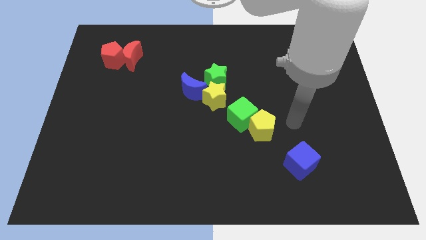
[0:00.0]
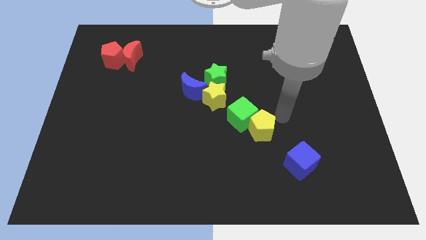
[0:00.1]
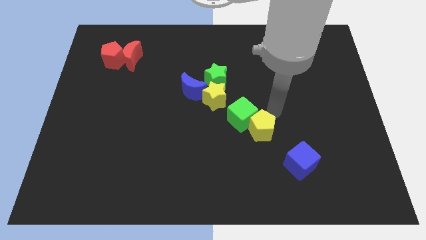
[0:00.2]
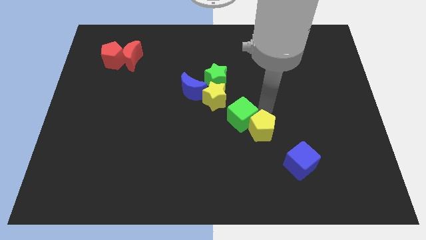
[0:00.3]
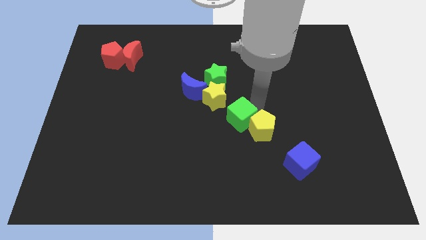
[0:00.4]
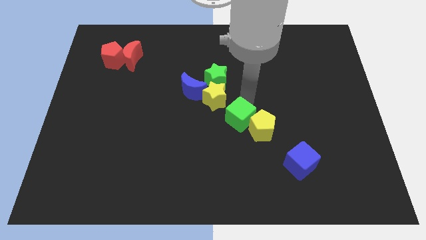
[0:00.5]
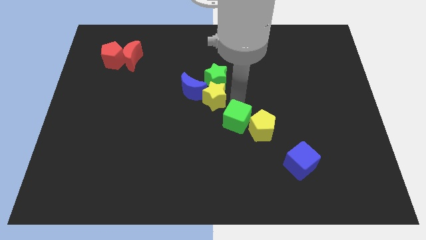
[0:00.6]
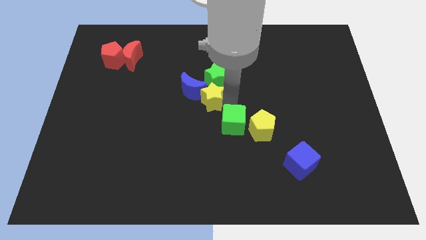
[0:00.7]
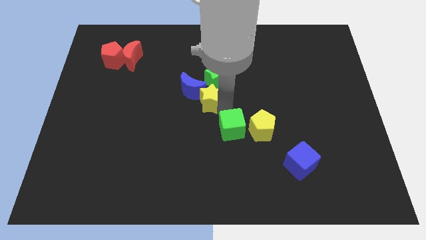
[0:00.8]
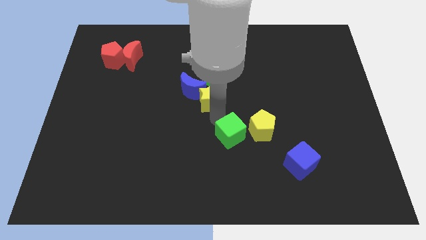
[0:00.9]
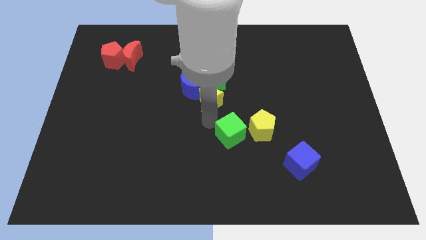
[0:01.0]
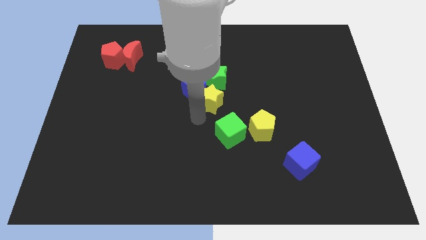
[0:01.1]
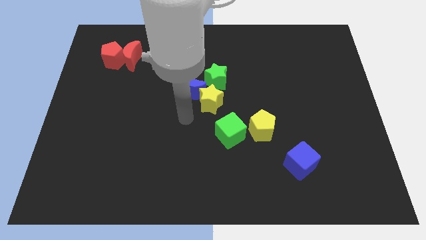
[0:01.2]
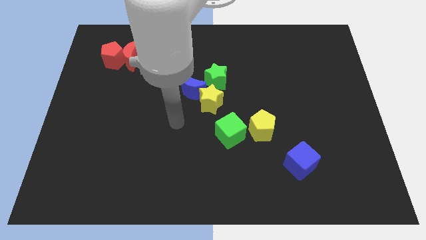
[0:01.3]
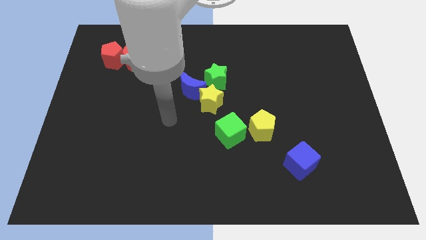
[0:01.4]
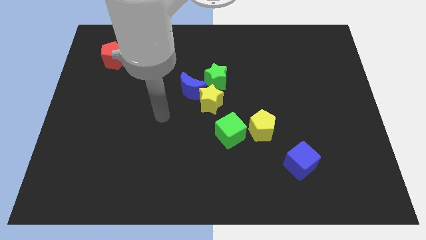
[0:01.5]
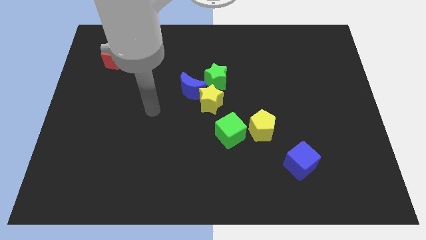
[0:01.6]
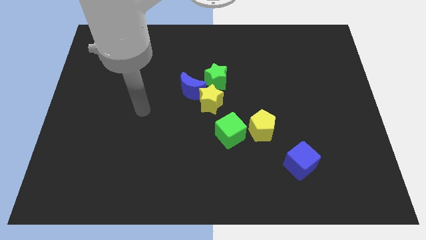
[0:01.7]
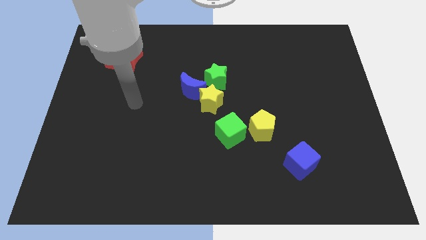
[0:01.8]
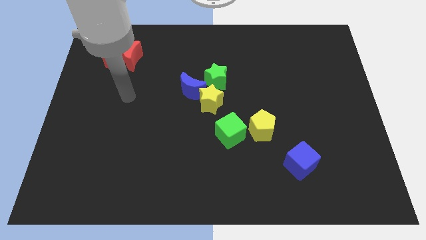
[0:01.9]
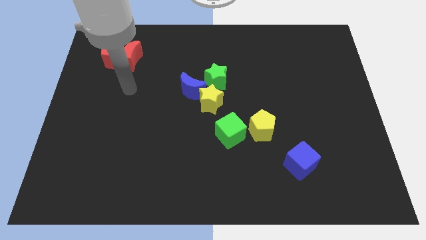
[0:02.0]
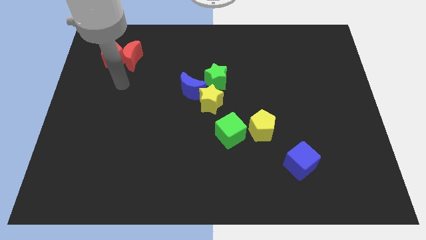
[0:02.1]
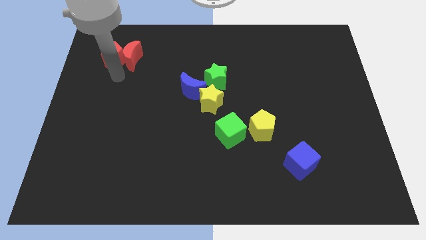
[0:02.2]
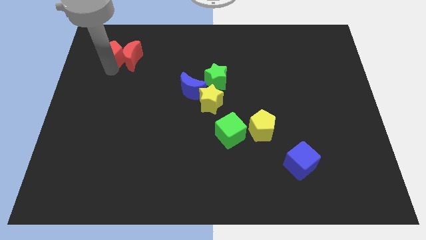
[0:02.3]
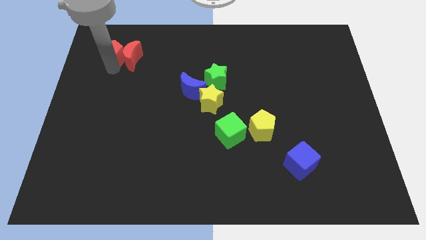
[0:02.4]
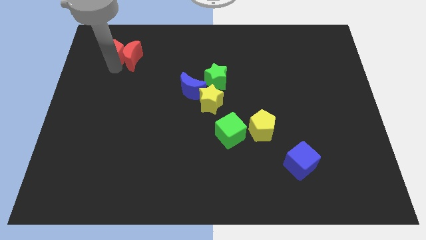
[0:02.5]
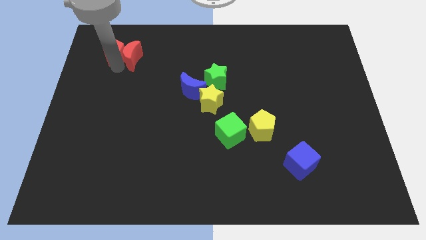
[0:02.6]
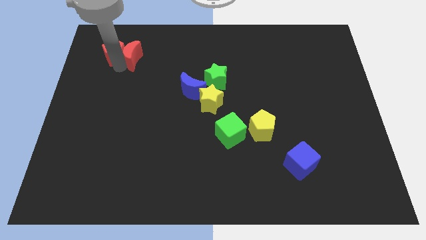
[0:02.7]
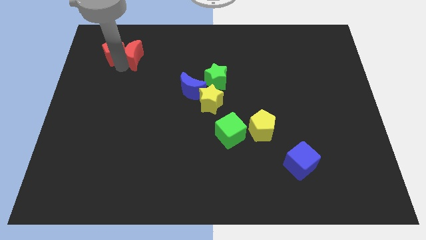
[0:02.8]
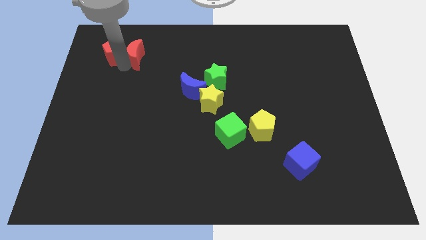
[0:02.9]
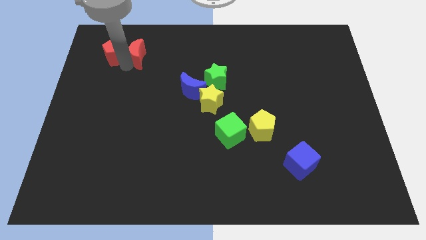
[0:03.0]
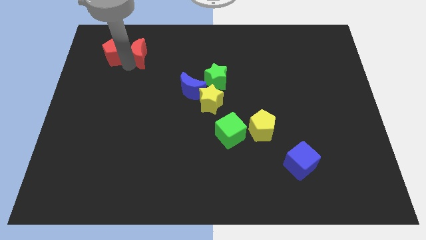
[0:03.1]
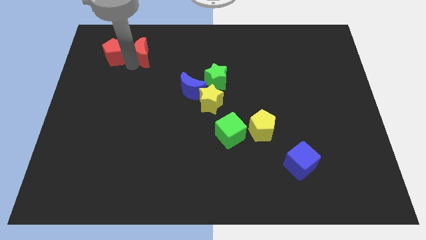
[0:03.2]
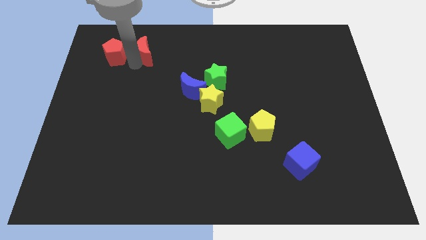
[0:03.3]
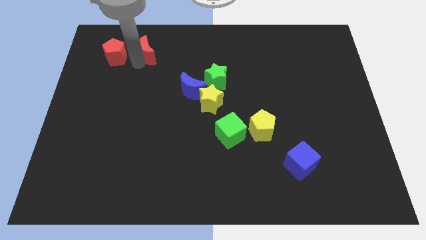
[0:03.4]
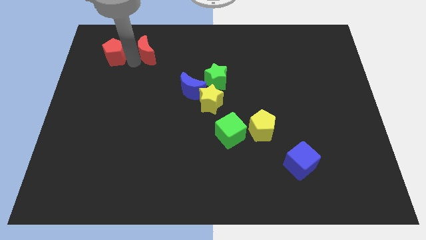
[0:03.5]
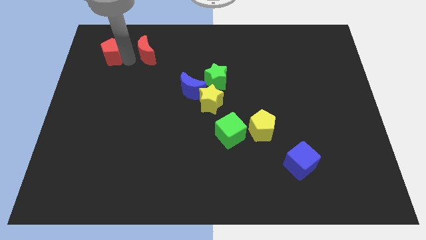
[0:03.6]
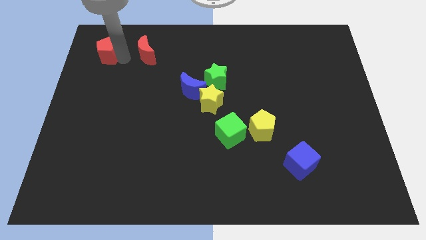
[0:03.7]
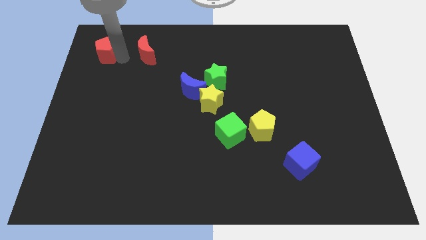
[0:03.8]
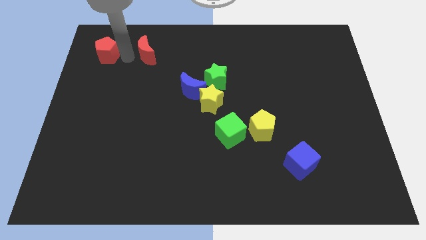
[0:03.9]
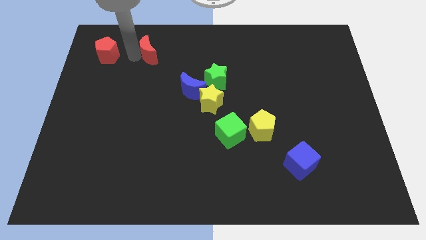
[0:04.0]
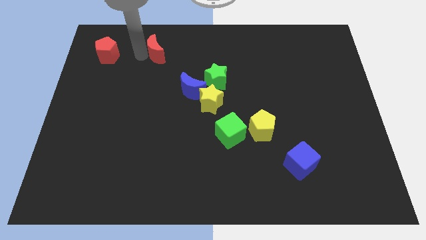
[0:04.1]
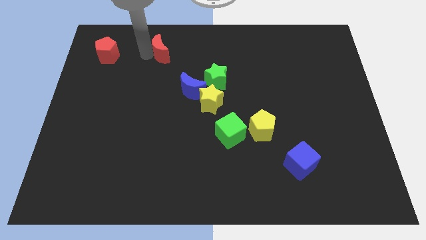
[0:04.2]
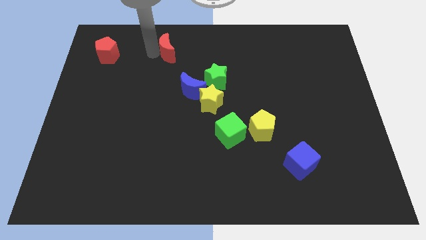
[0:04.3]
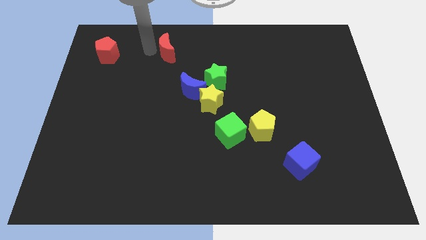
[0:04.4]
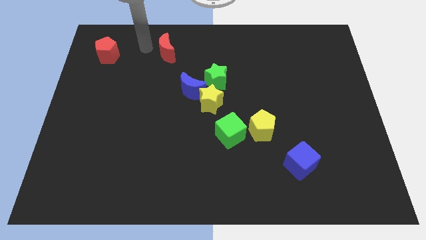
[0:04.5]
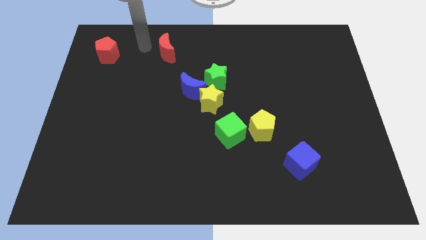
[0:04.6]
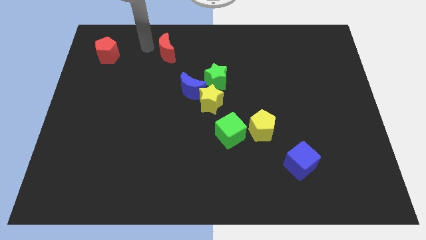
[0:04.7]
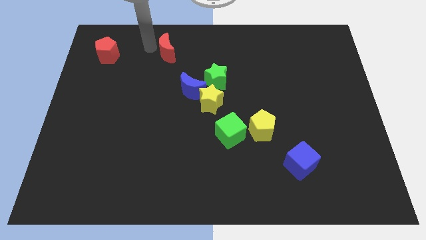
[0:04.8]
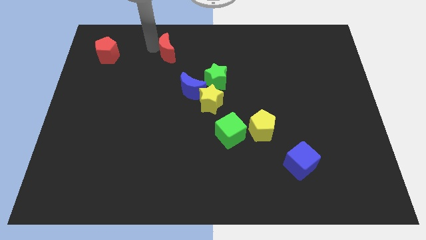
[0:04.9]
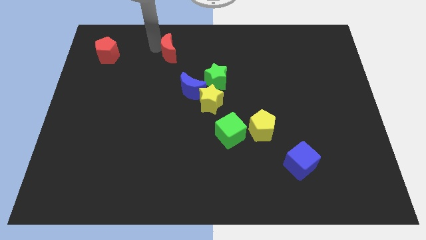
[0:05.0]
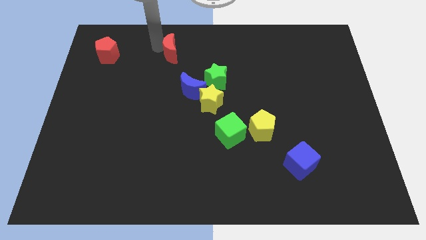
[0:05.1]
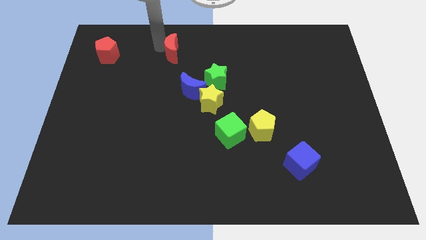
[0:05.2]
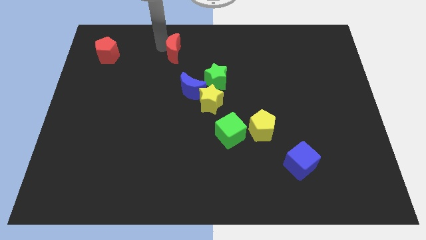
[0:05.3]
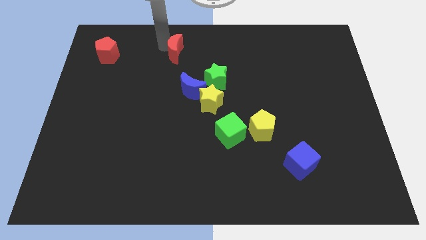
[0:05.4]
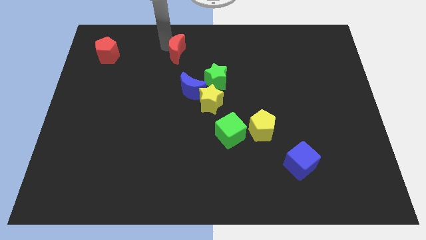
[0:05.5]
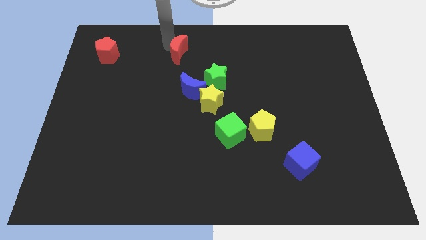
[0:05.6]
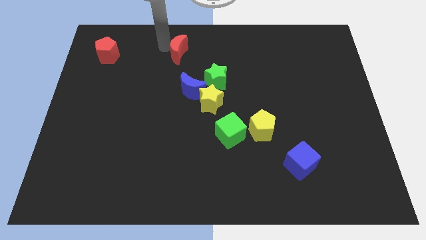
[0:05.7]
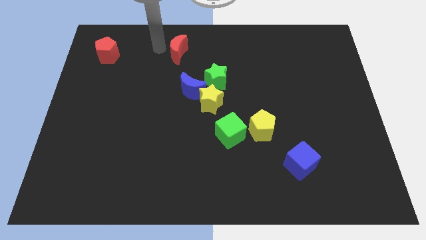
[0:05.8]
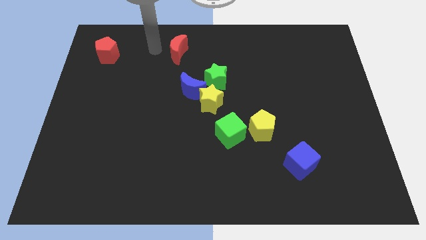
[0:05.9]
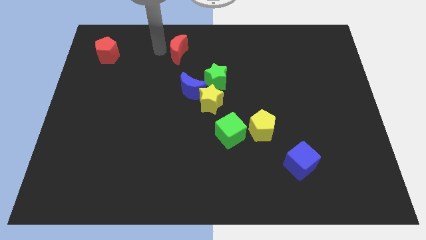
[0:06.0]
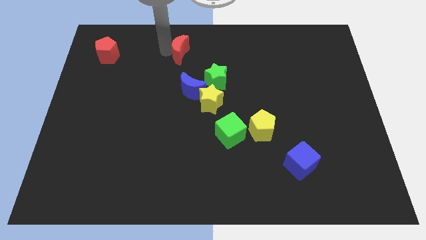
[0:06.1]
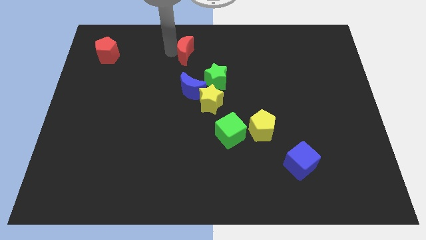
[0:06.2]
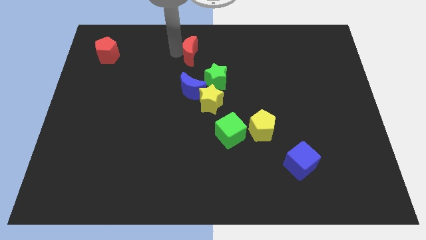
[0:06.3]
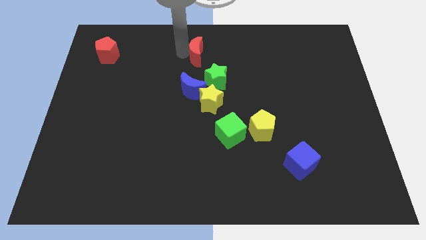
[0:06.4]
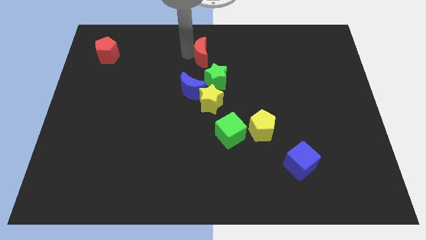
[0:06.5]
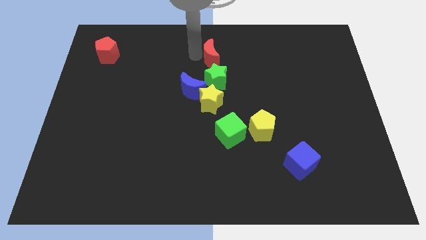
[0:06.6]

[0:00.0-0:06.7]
slide the red moon to the right

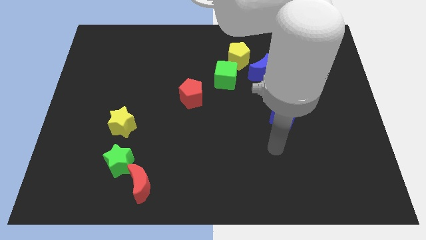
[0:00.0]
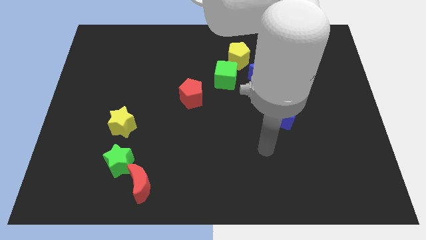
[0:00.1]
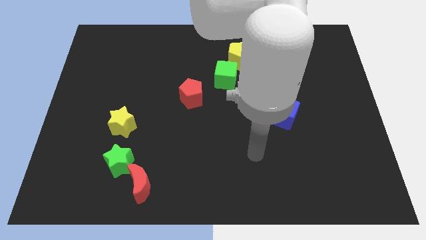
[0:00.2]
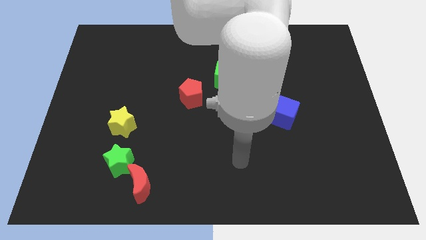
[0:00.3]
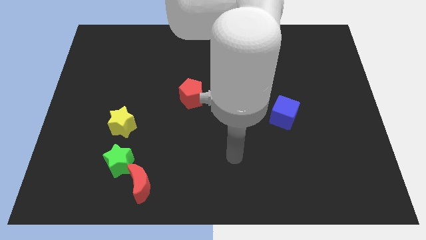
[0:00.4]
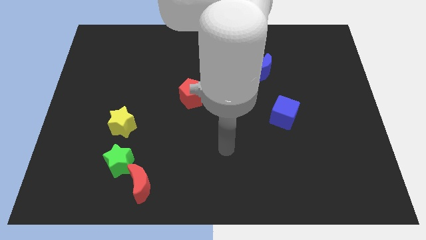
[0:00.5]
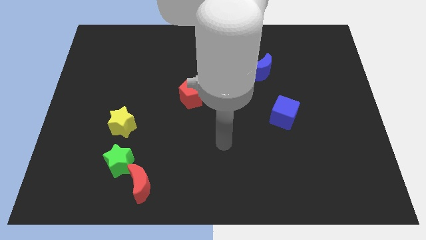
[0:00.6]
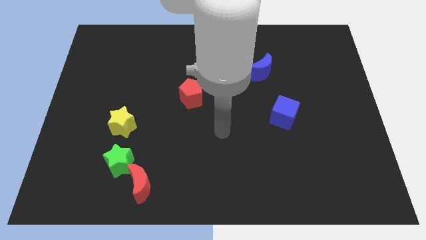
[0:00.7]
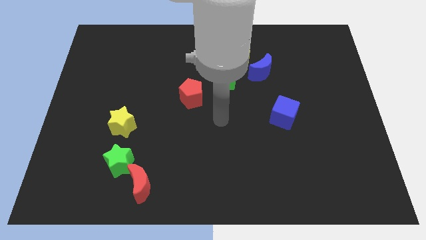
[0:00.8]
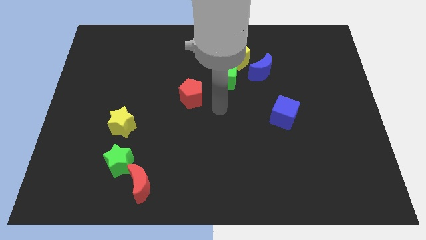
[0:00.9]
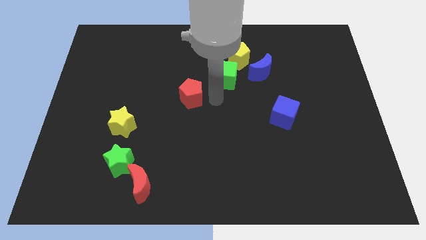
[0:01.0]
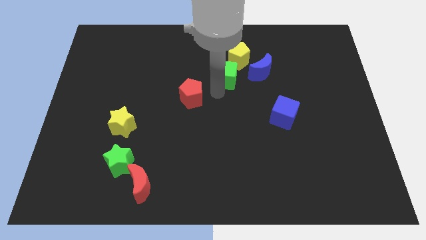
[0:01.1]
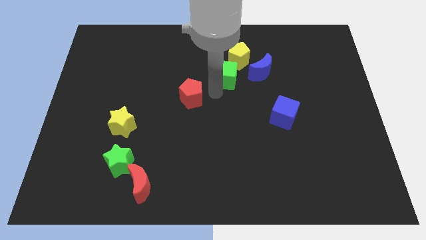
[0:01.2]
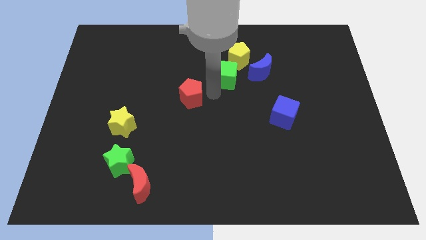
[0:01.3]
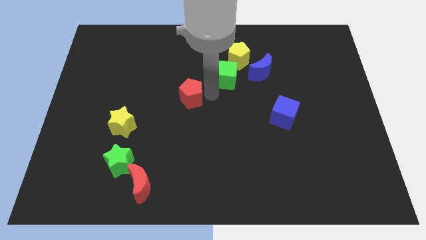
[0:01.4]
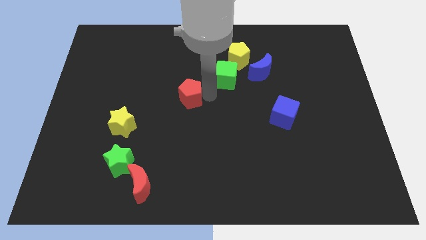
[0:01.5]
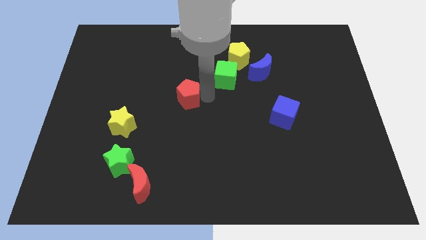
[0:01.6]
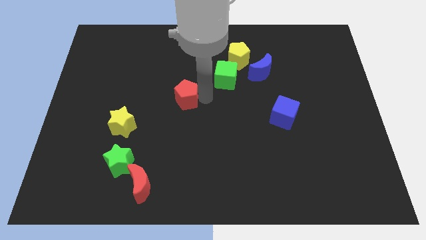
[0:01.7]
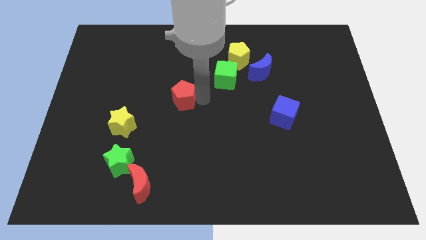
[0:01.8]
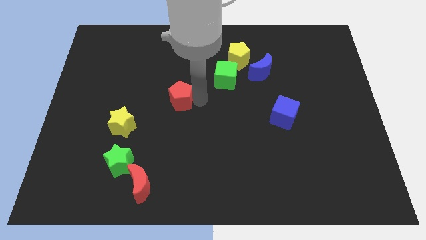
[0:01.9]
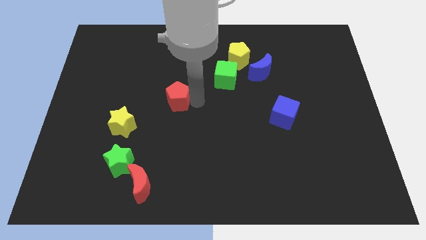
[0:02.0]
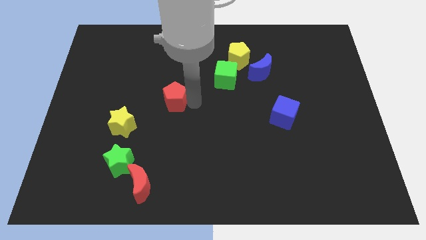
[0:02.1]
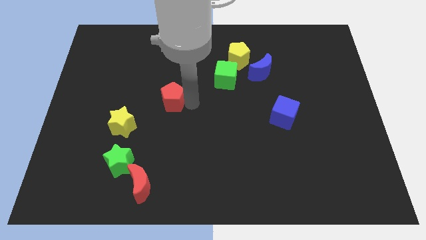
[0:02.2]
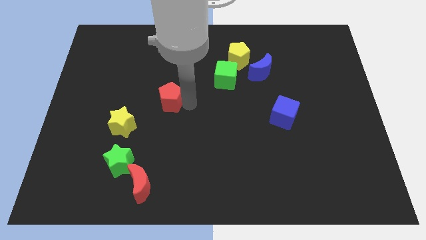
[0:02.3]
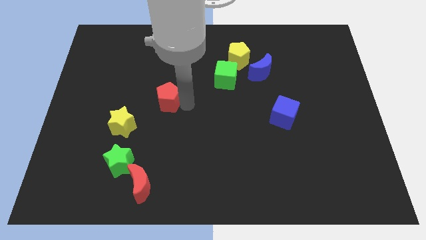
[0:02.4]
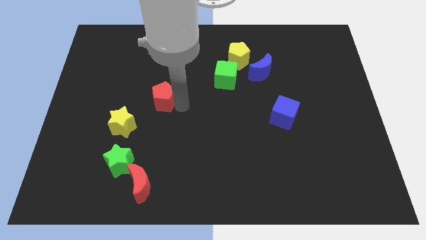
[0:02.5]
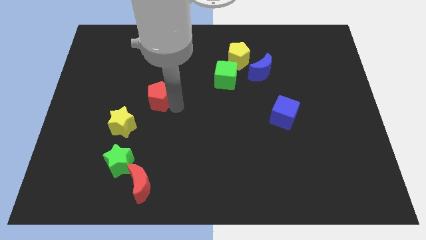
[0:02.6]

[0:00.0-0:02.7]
slightly push the red pentagon left
